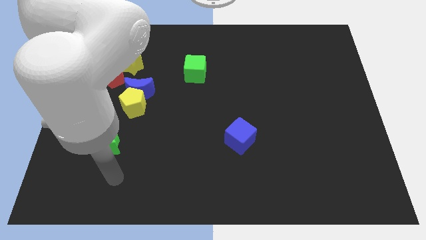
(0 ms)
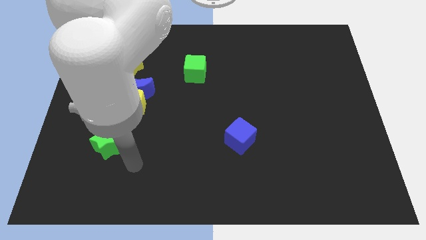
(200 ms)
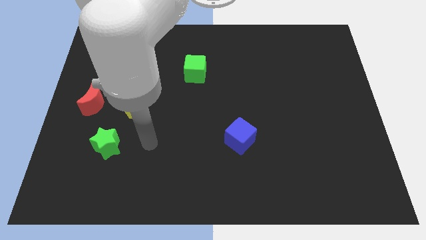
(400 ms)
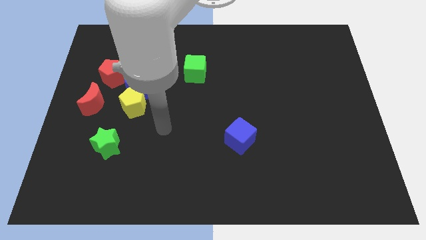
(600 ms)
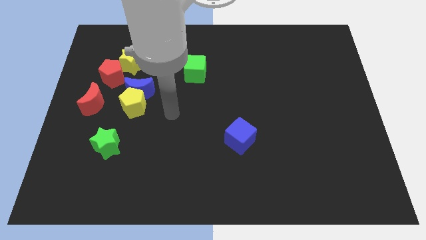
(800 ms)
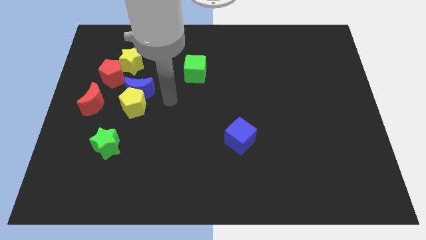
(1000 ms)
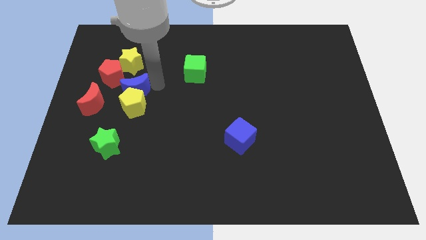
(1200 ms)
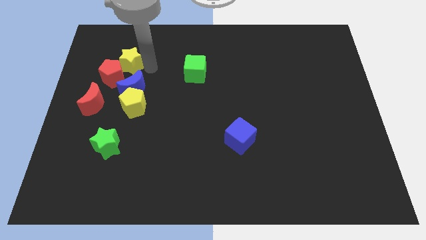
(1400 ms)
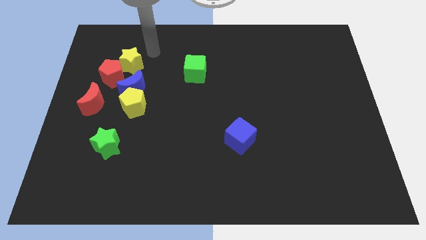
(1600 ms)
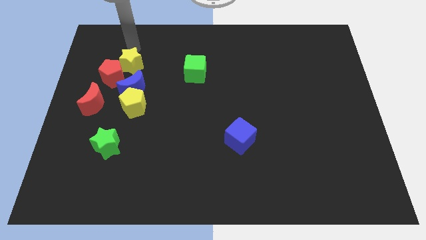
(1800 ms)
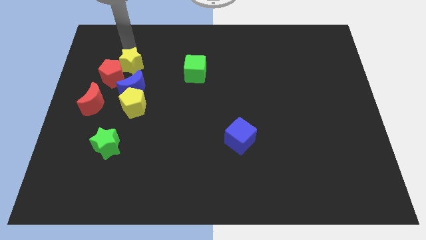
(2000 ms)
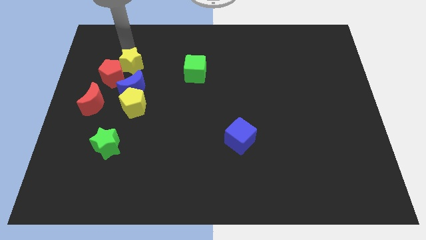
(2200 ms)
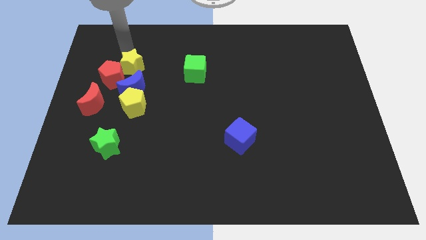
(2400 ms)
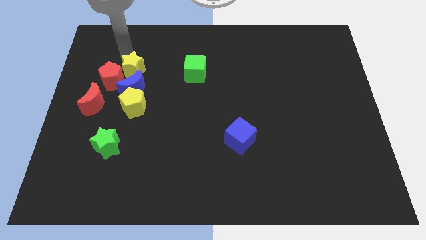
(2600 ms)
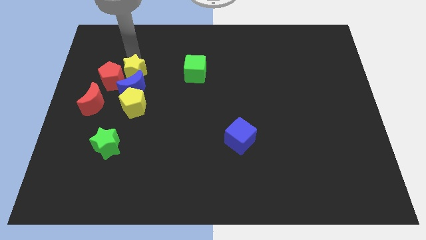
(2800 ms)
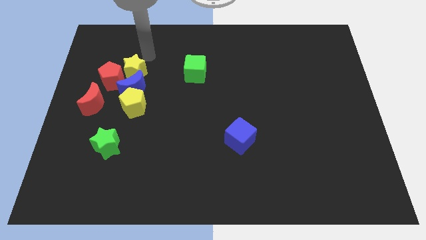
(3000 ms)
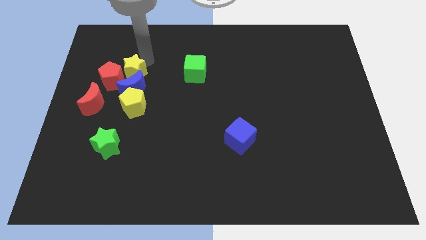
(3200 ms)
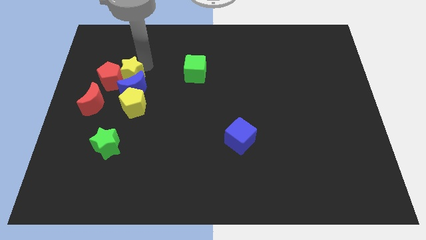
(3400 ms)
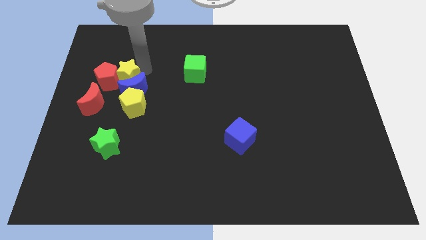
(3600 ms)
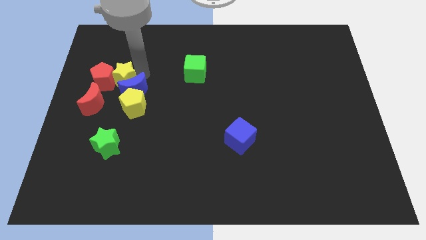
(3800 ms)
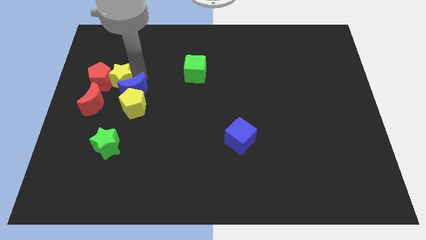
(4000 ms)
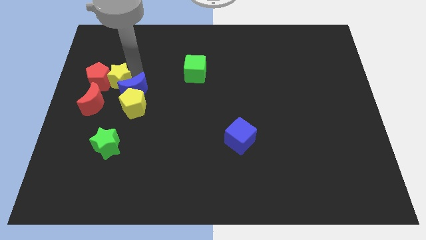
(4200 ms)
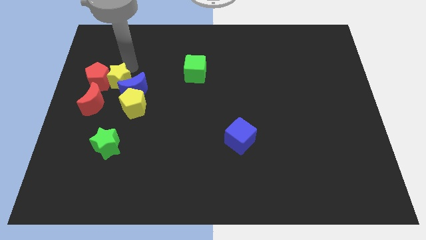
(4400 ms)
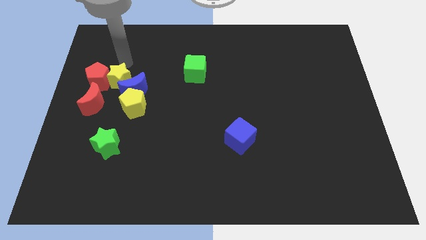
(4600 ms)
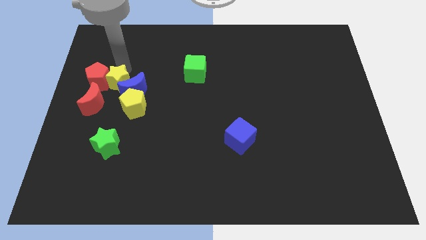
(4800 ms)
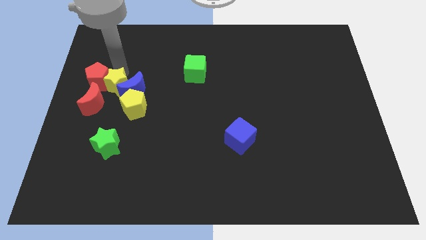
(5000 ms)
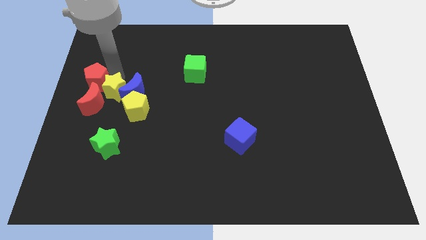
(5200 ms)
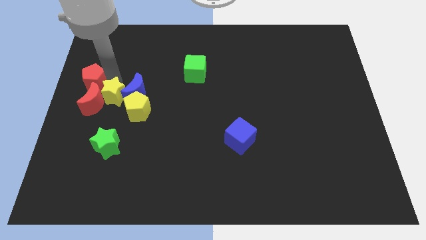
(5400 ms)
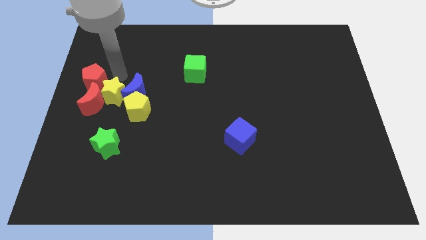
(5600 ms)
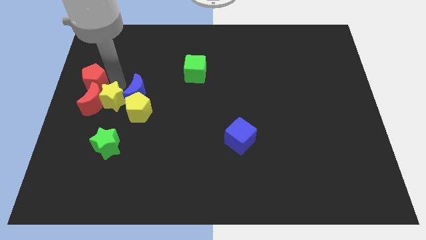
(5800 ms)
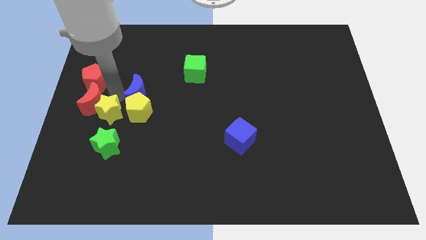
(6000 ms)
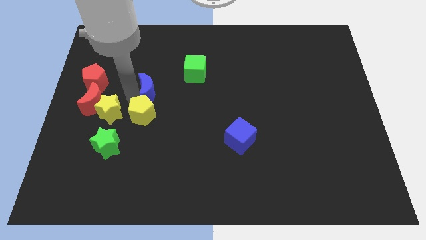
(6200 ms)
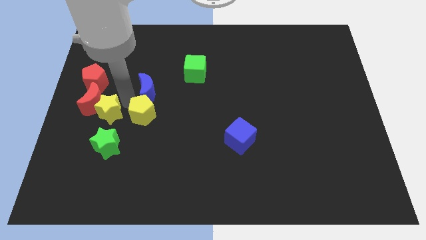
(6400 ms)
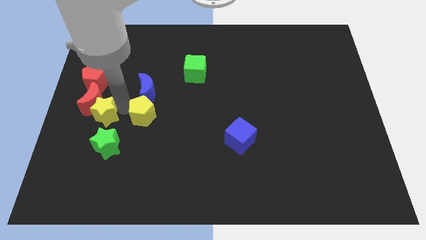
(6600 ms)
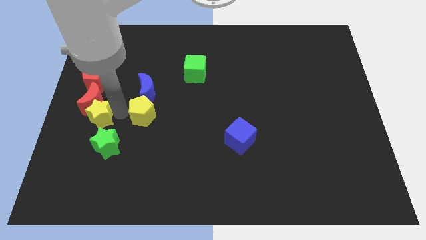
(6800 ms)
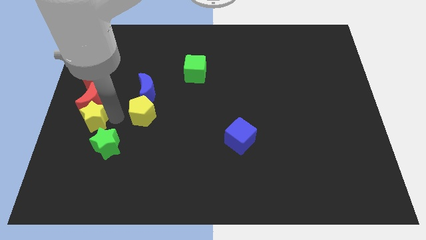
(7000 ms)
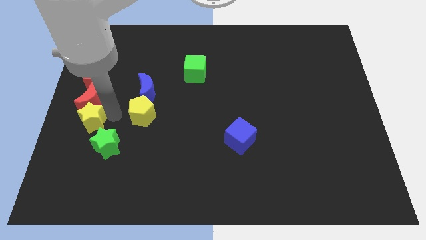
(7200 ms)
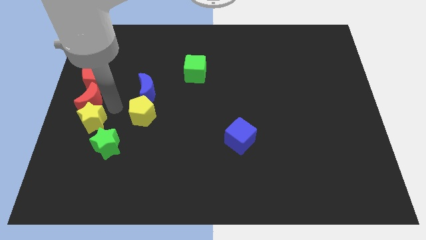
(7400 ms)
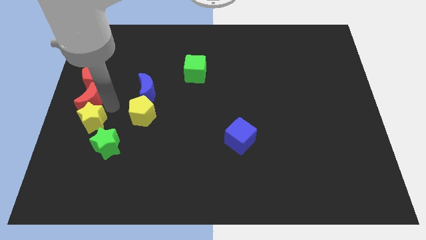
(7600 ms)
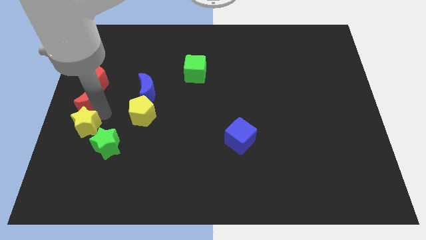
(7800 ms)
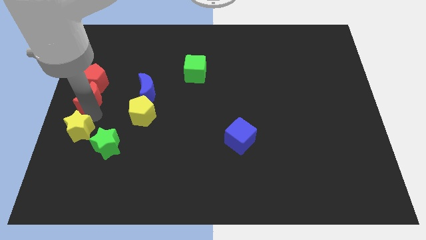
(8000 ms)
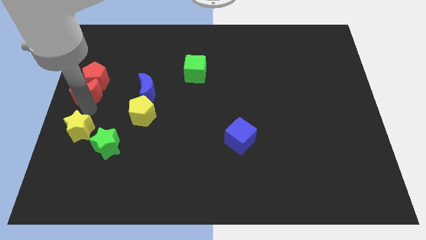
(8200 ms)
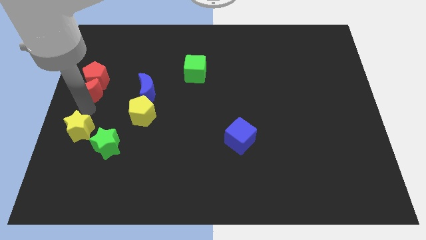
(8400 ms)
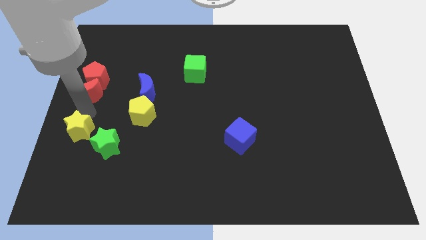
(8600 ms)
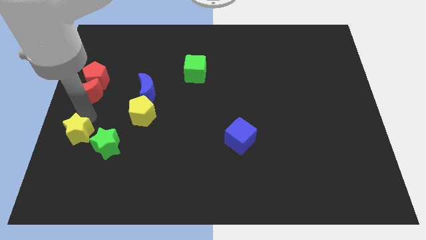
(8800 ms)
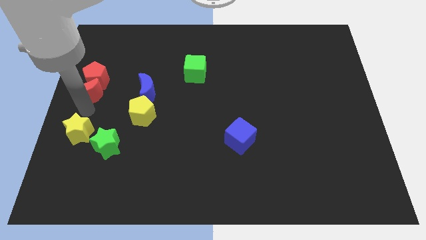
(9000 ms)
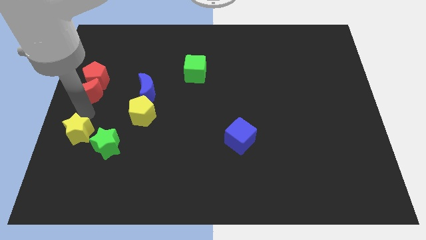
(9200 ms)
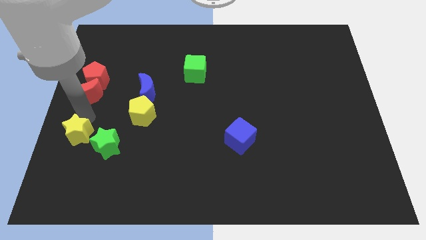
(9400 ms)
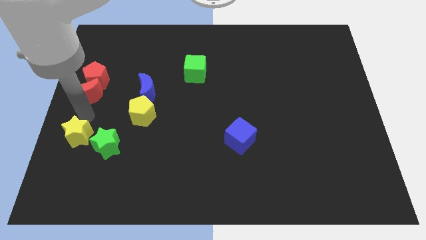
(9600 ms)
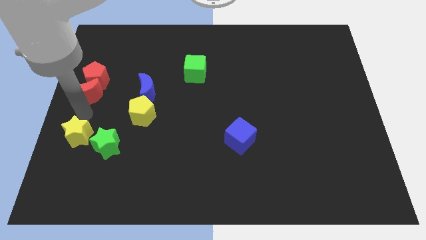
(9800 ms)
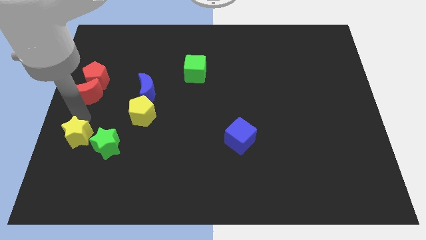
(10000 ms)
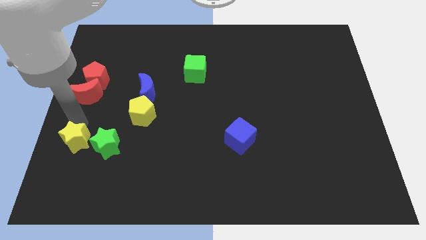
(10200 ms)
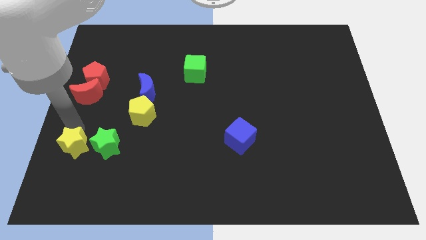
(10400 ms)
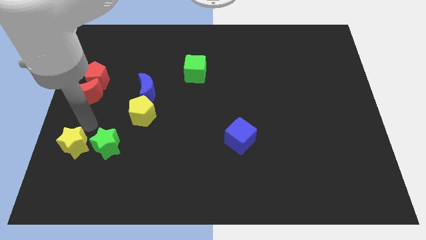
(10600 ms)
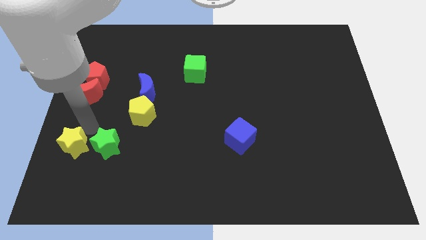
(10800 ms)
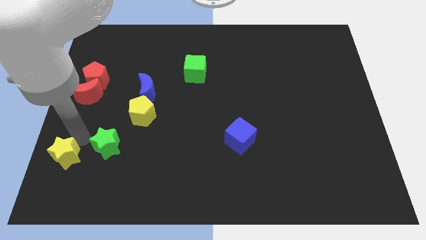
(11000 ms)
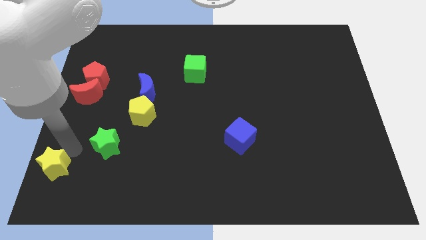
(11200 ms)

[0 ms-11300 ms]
slide the yellow star to the bottom left

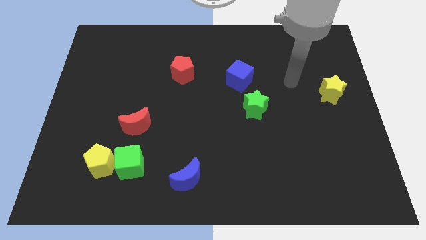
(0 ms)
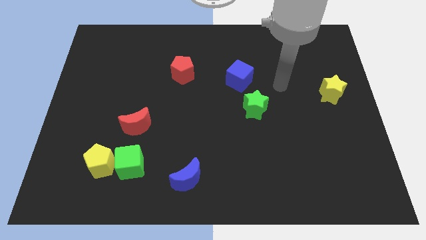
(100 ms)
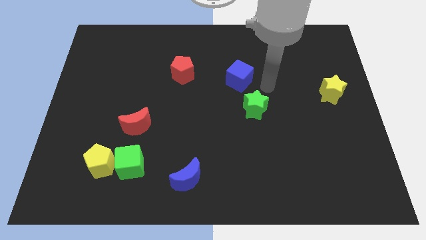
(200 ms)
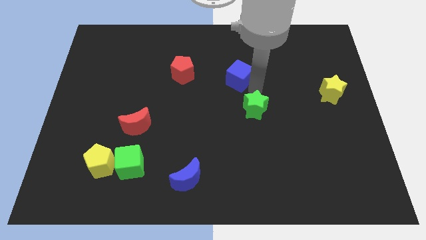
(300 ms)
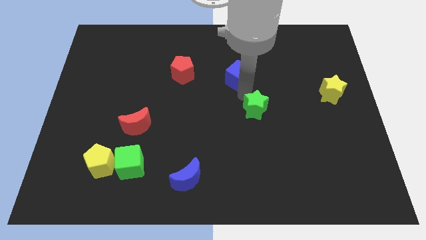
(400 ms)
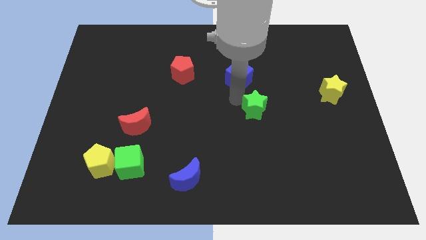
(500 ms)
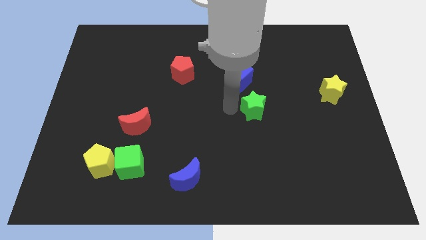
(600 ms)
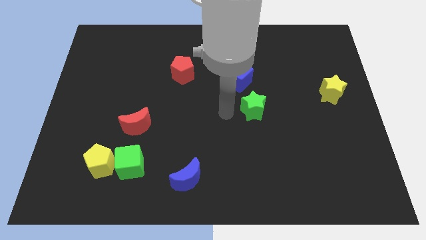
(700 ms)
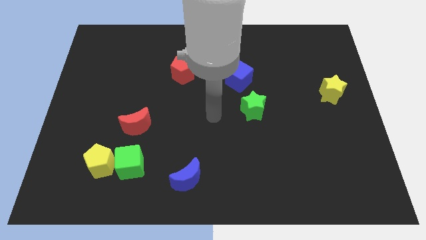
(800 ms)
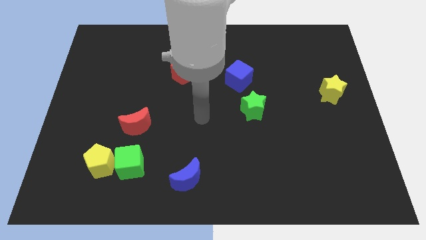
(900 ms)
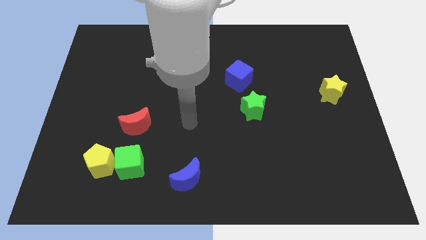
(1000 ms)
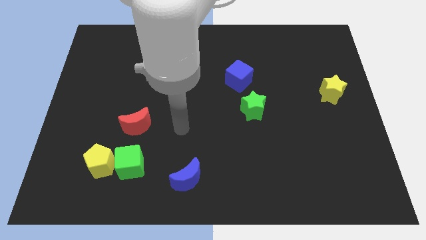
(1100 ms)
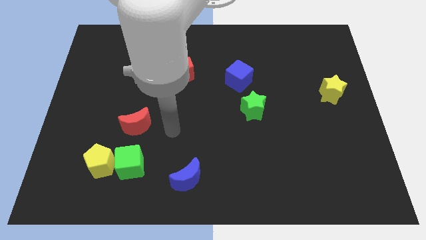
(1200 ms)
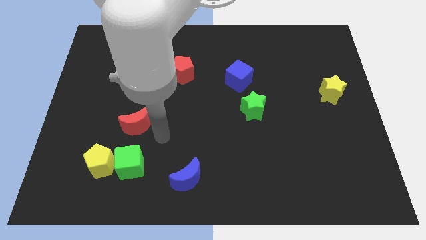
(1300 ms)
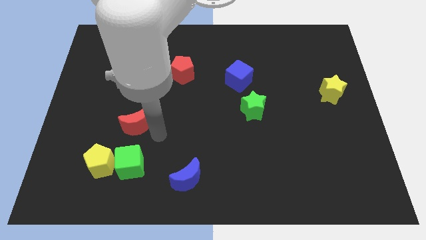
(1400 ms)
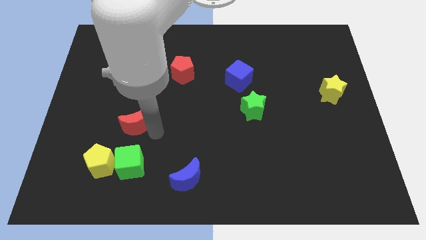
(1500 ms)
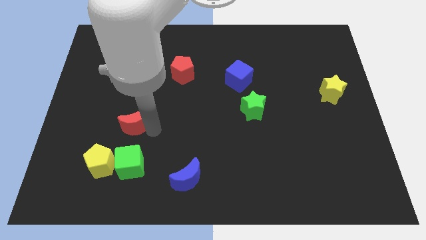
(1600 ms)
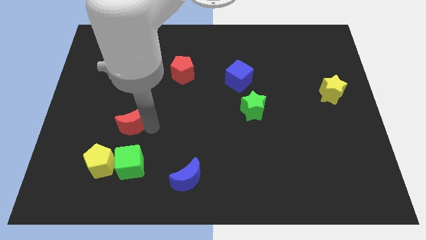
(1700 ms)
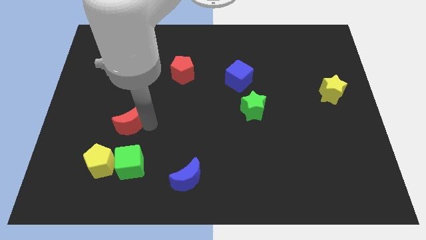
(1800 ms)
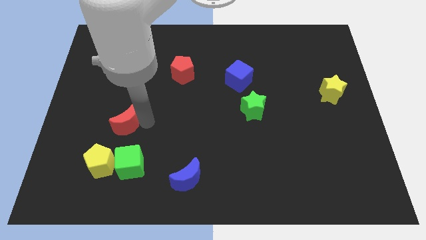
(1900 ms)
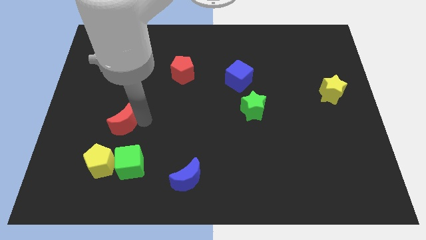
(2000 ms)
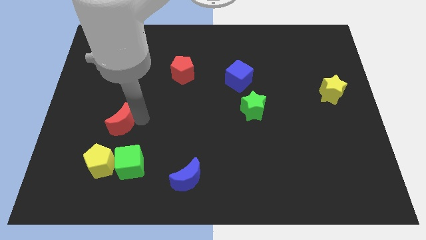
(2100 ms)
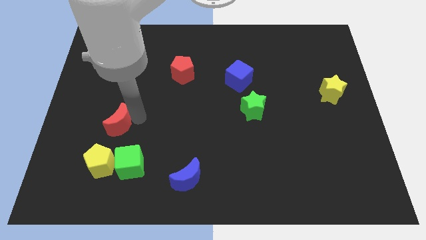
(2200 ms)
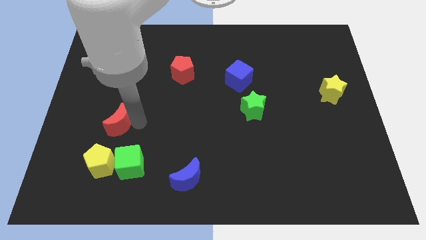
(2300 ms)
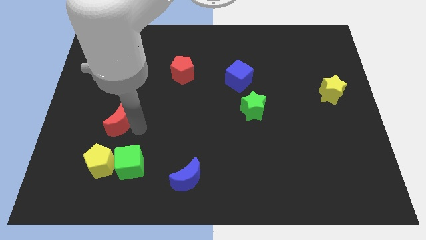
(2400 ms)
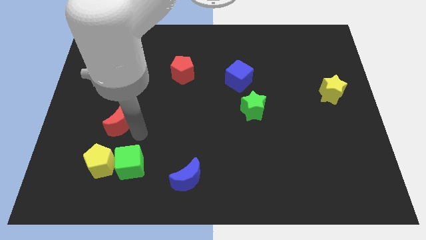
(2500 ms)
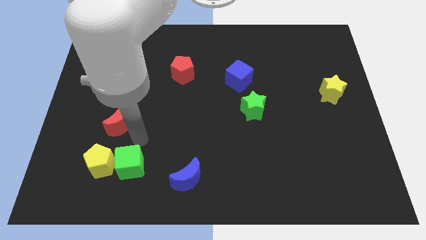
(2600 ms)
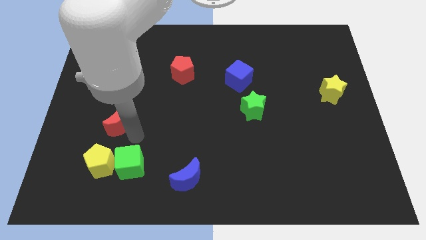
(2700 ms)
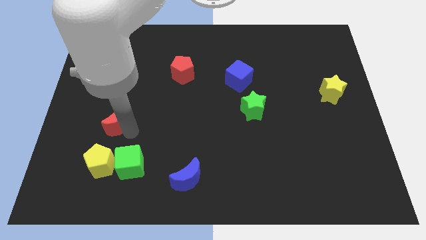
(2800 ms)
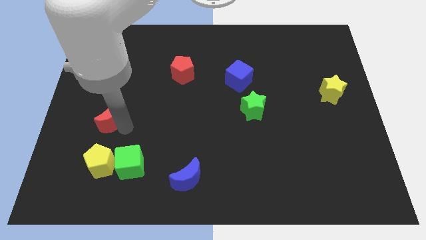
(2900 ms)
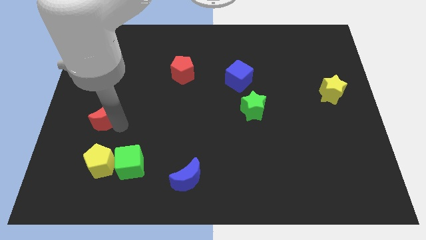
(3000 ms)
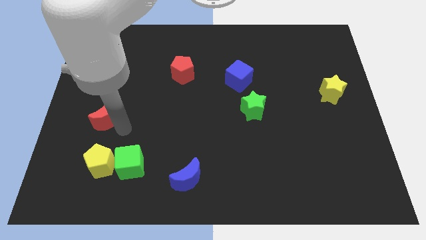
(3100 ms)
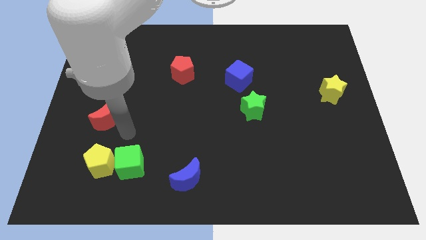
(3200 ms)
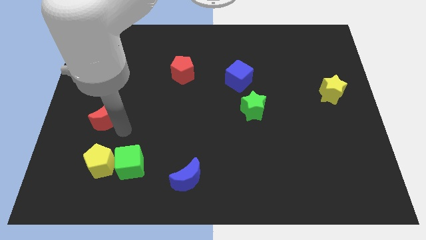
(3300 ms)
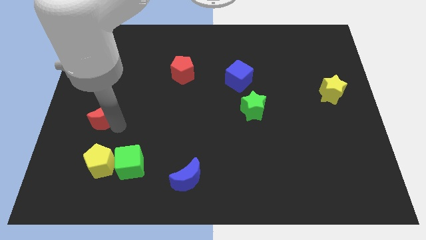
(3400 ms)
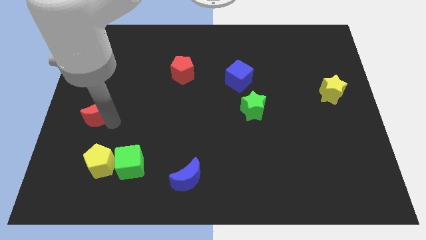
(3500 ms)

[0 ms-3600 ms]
put the red moon to the left side of the board
